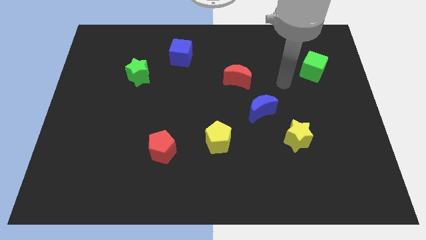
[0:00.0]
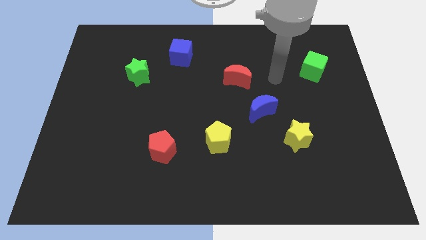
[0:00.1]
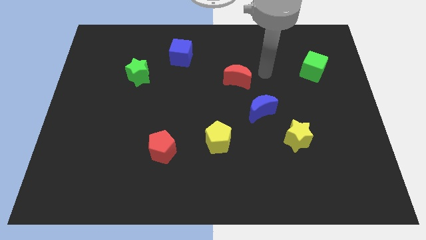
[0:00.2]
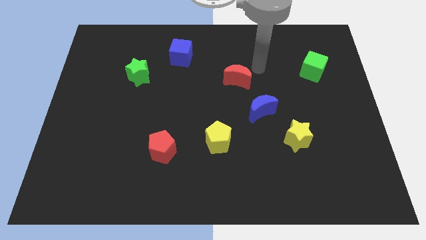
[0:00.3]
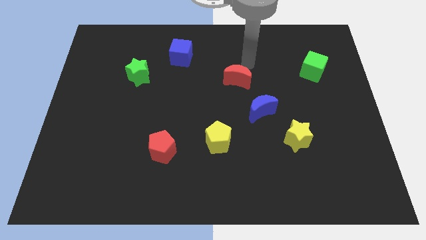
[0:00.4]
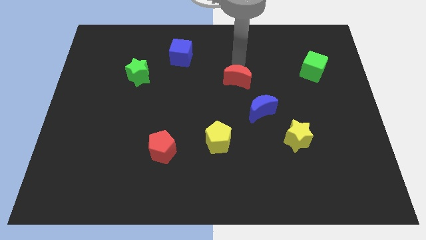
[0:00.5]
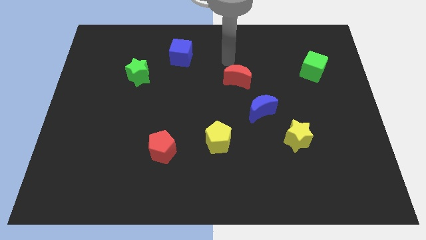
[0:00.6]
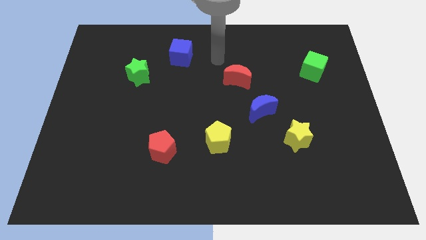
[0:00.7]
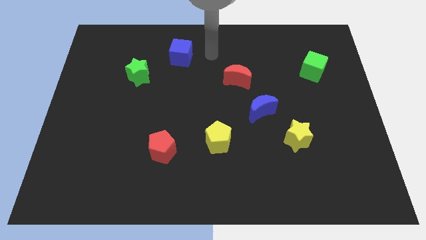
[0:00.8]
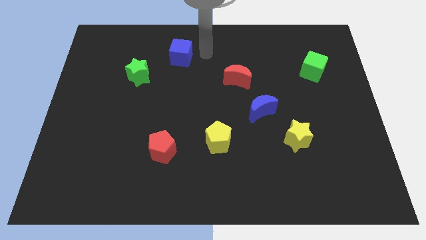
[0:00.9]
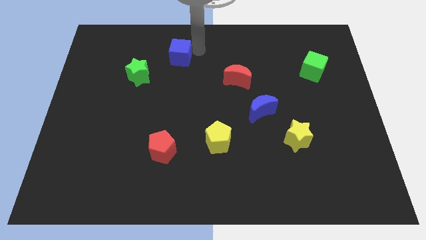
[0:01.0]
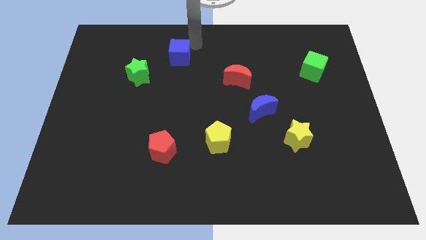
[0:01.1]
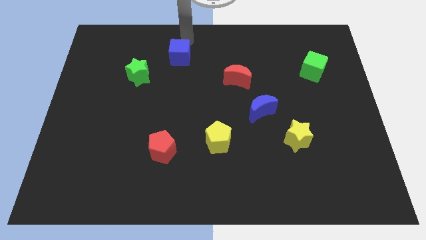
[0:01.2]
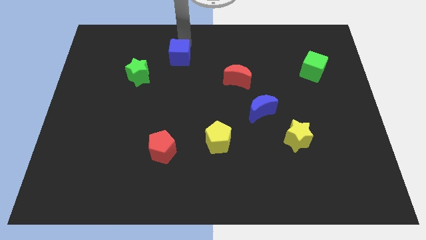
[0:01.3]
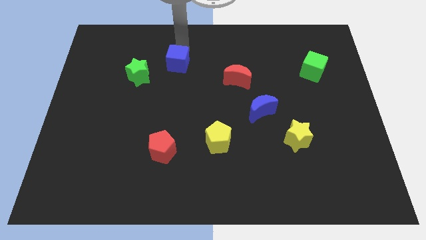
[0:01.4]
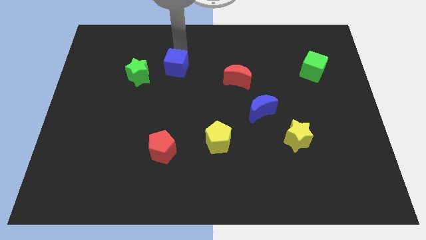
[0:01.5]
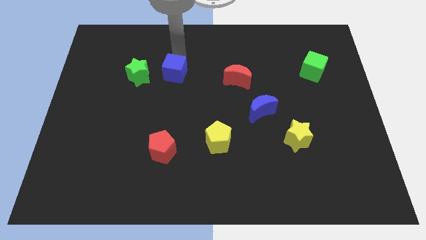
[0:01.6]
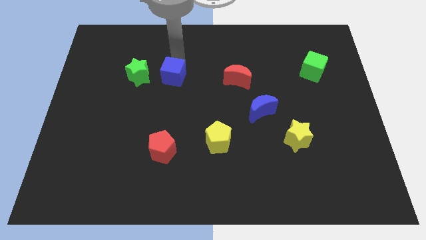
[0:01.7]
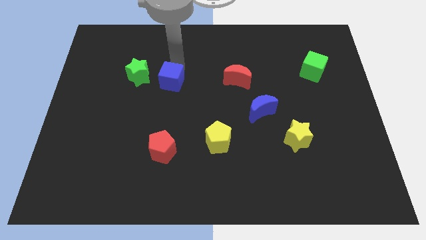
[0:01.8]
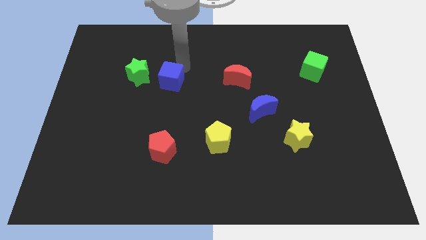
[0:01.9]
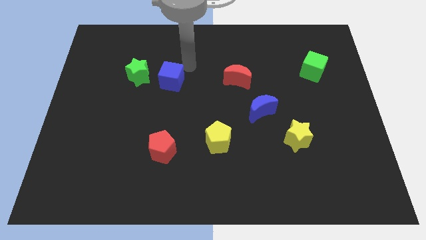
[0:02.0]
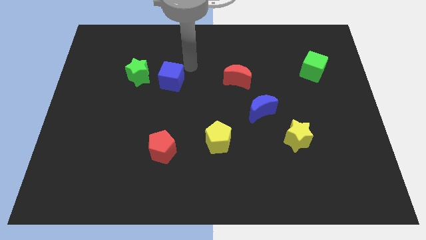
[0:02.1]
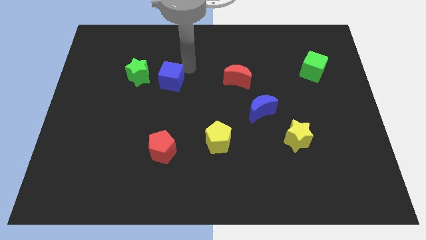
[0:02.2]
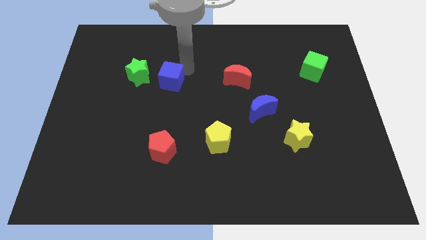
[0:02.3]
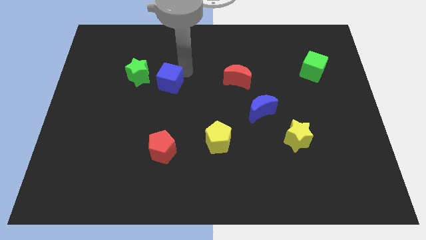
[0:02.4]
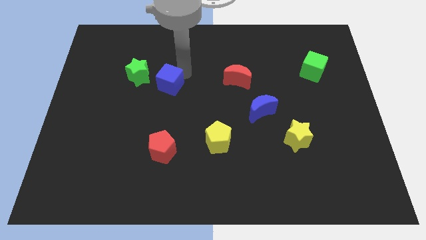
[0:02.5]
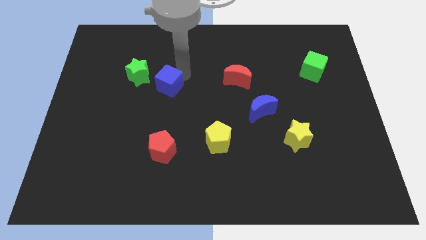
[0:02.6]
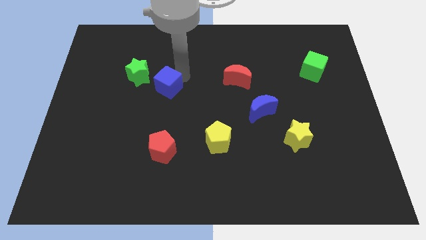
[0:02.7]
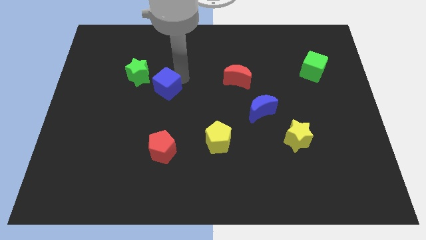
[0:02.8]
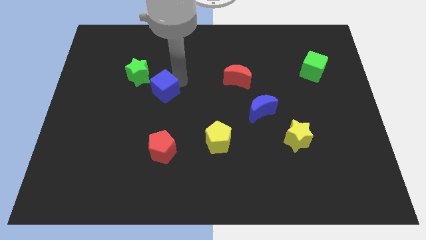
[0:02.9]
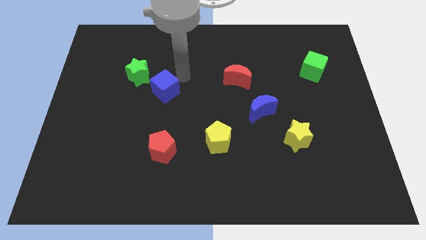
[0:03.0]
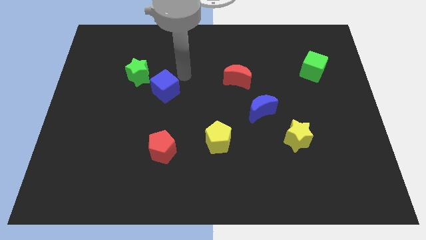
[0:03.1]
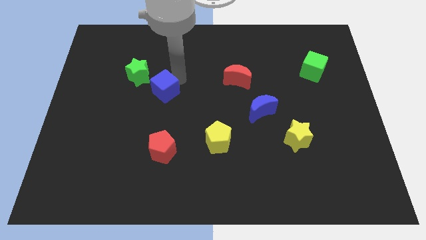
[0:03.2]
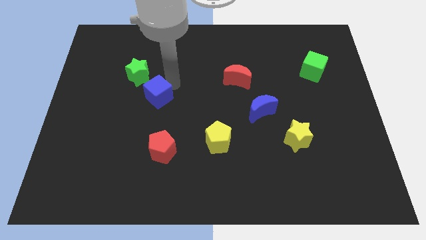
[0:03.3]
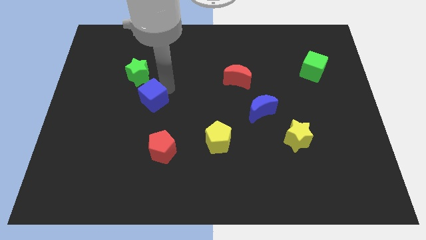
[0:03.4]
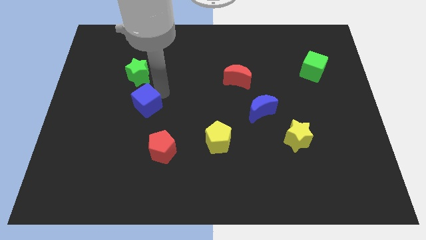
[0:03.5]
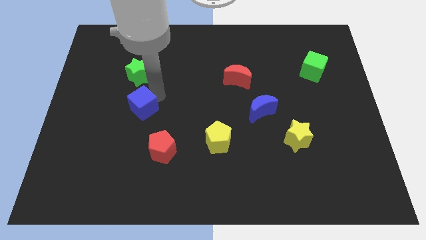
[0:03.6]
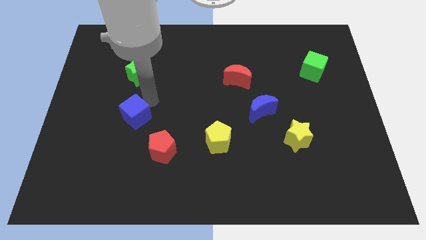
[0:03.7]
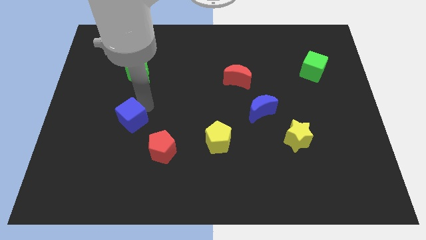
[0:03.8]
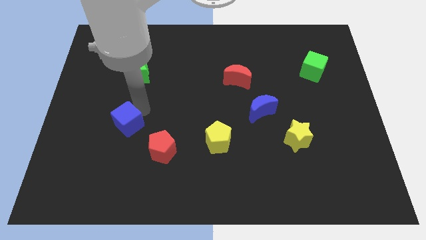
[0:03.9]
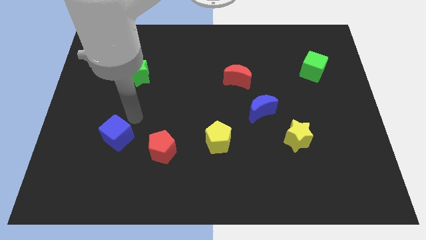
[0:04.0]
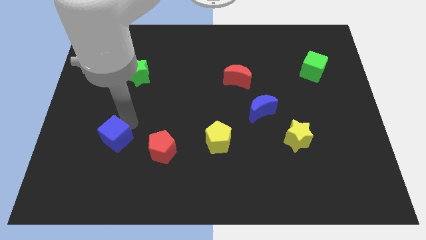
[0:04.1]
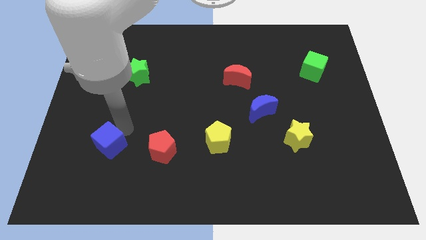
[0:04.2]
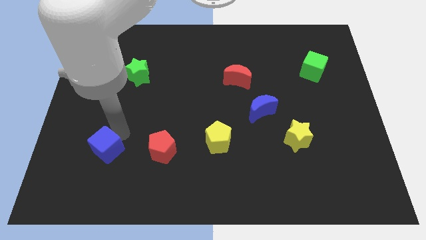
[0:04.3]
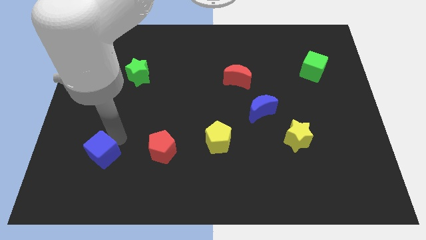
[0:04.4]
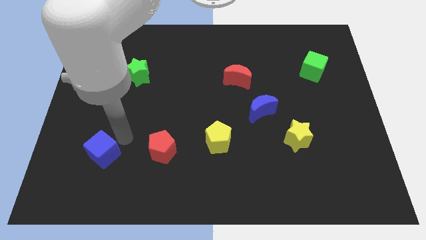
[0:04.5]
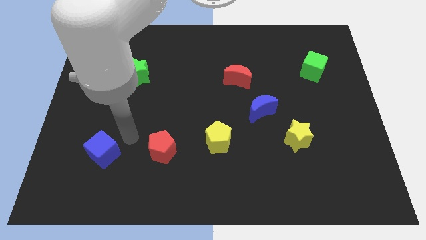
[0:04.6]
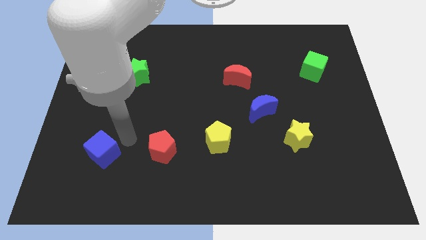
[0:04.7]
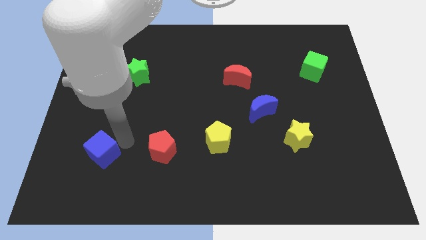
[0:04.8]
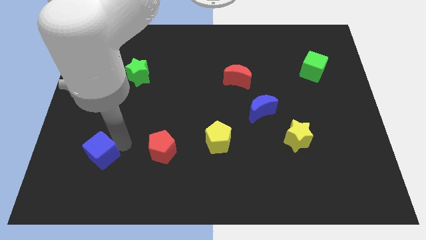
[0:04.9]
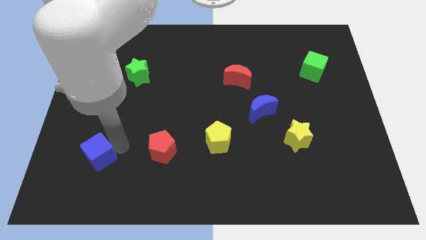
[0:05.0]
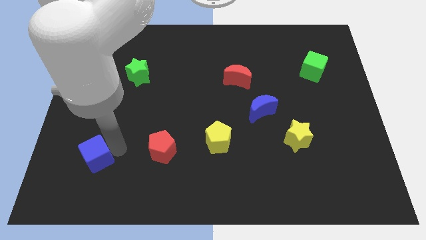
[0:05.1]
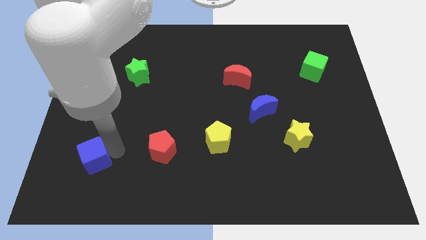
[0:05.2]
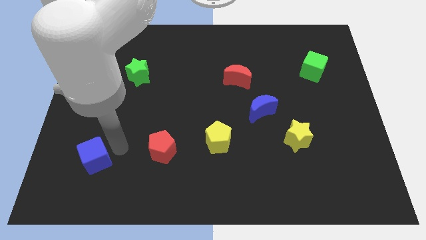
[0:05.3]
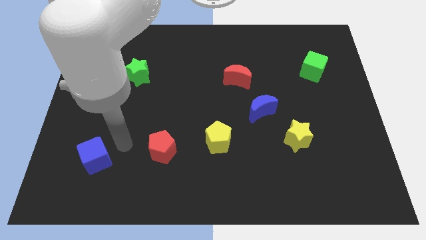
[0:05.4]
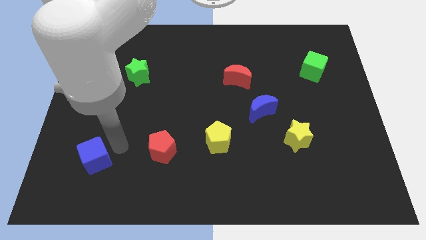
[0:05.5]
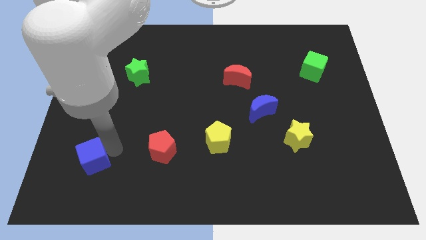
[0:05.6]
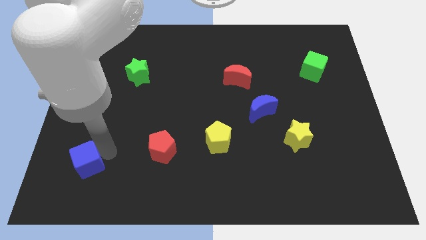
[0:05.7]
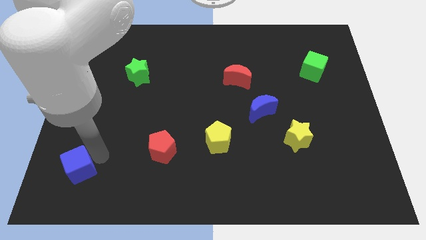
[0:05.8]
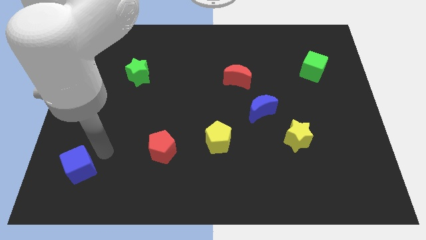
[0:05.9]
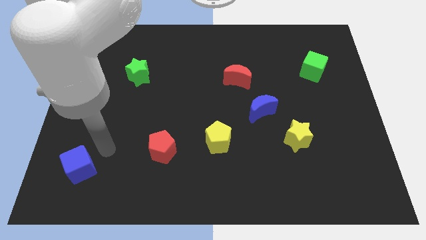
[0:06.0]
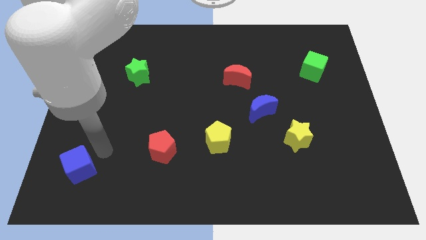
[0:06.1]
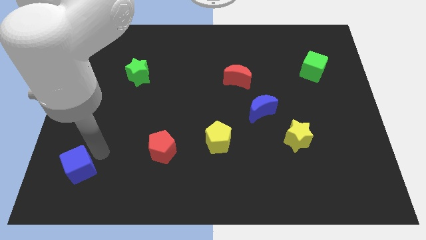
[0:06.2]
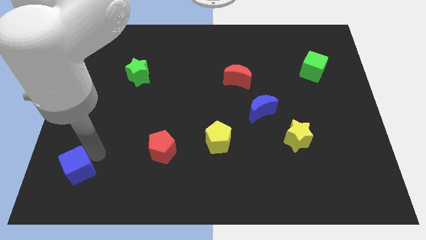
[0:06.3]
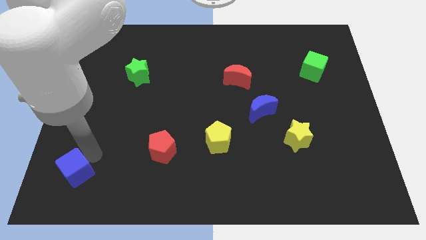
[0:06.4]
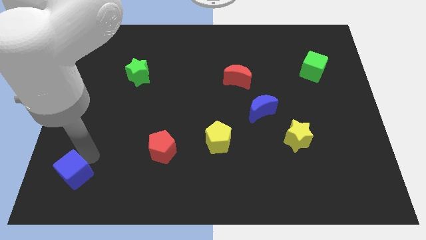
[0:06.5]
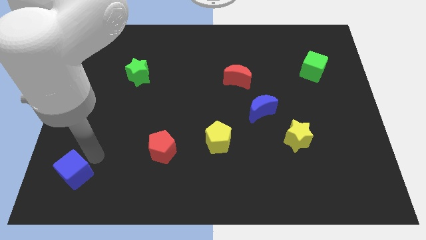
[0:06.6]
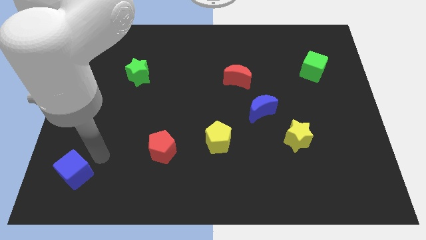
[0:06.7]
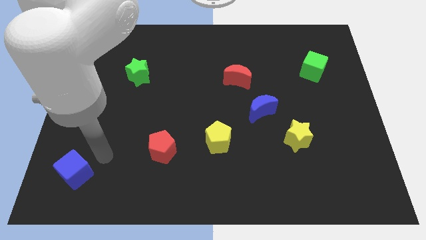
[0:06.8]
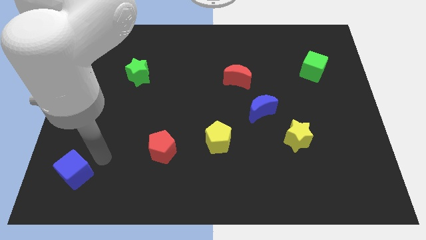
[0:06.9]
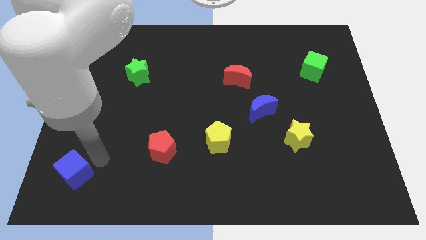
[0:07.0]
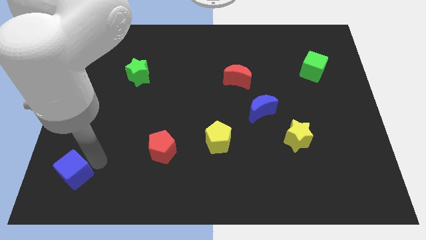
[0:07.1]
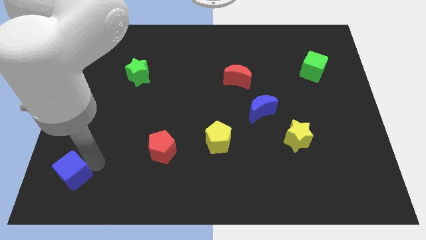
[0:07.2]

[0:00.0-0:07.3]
move the blue cube to the bottom left
